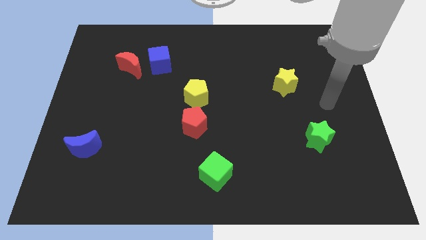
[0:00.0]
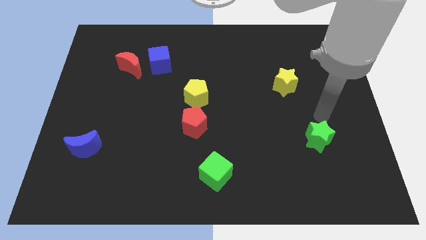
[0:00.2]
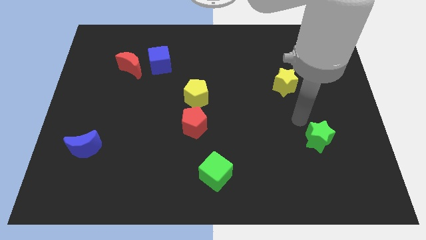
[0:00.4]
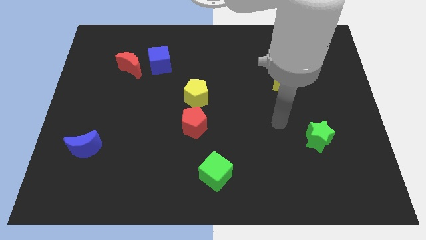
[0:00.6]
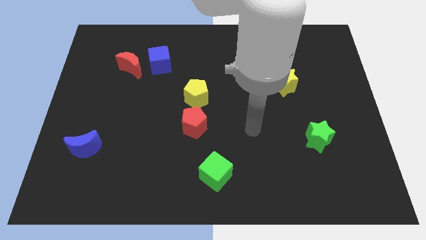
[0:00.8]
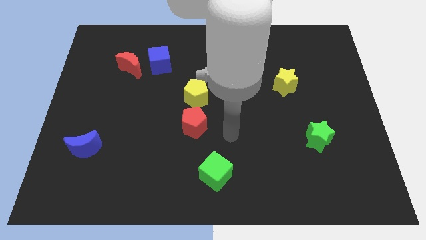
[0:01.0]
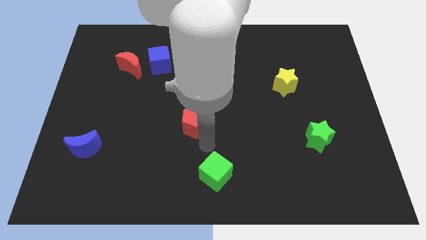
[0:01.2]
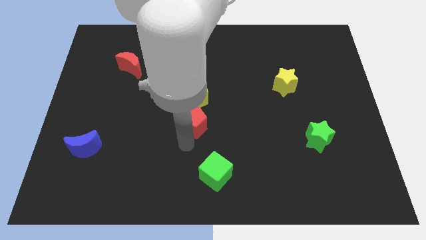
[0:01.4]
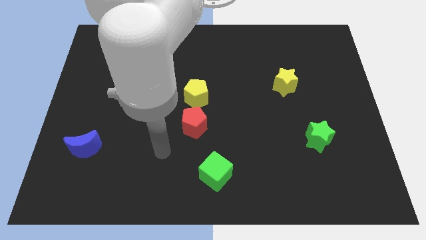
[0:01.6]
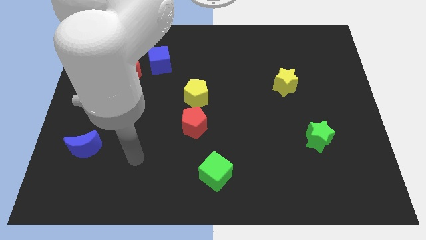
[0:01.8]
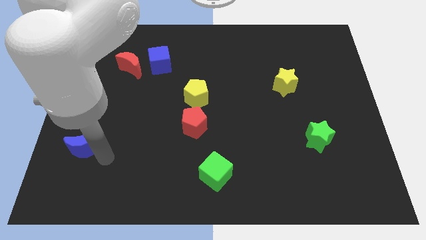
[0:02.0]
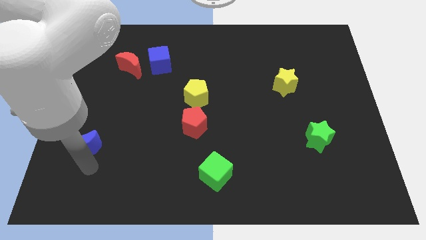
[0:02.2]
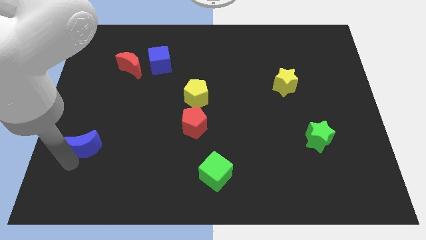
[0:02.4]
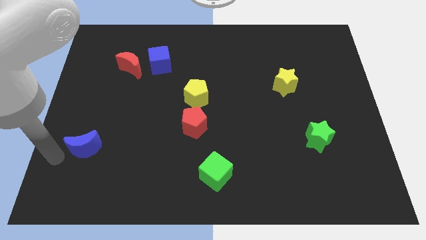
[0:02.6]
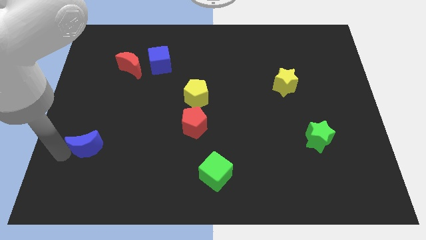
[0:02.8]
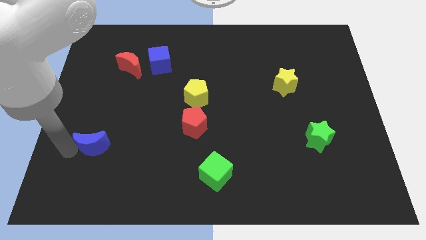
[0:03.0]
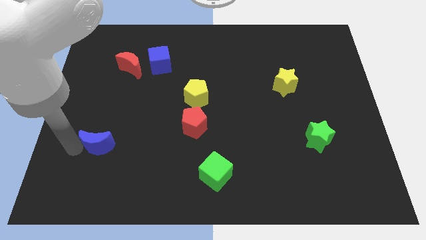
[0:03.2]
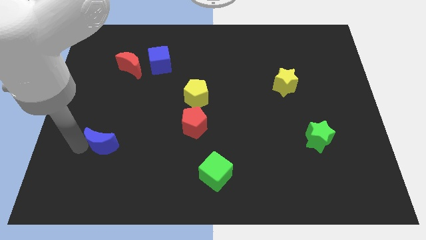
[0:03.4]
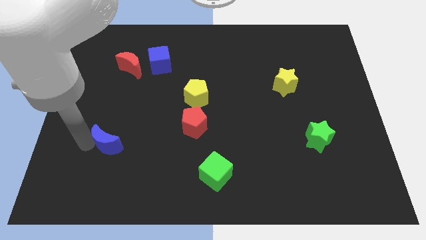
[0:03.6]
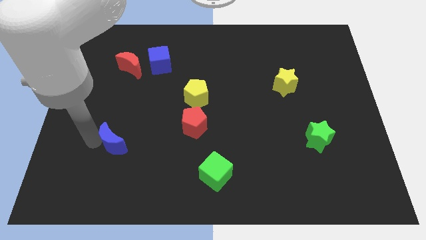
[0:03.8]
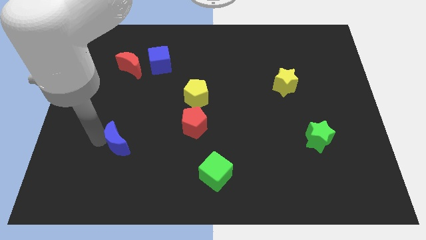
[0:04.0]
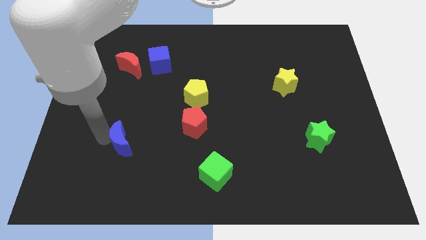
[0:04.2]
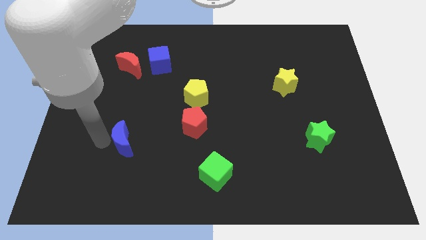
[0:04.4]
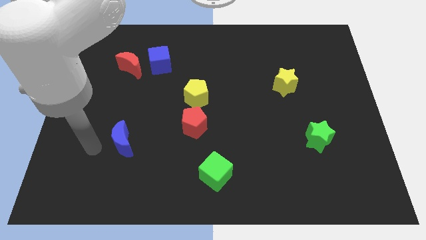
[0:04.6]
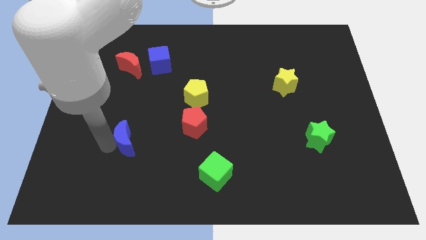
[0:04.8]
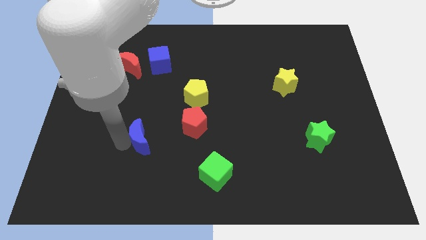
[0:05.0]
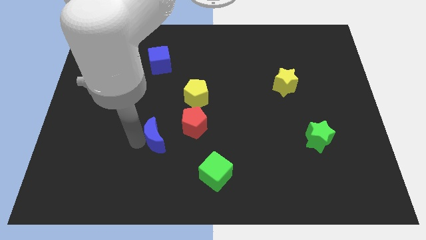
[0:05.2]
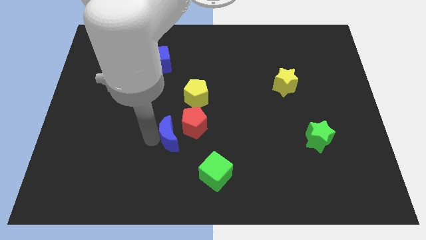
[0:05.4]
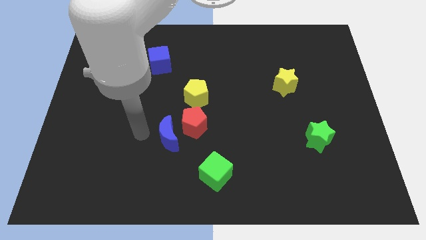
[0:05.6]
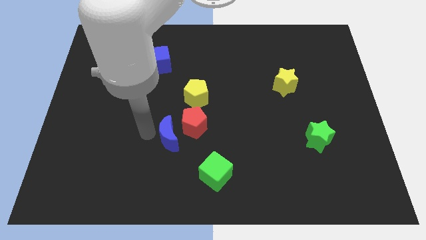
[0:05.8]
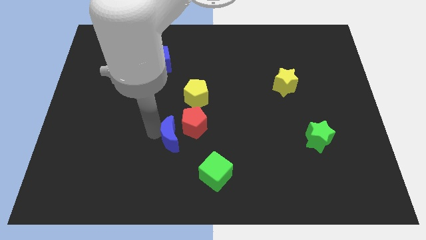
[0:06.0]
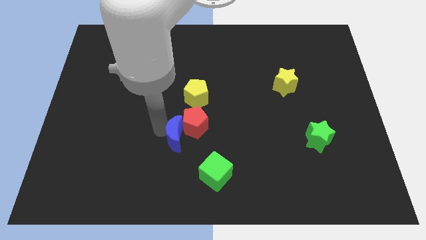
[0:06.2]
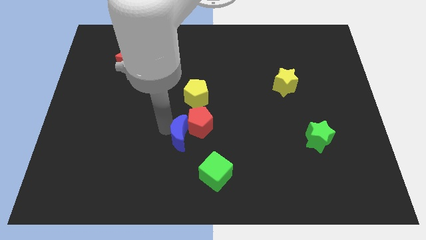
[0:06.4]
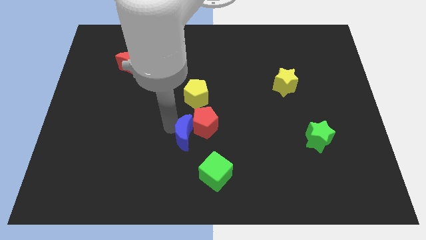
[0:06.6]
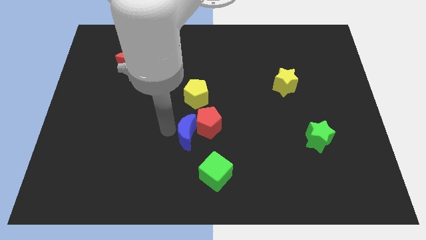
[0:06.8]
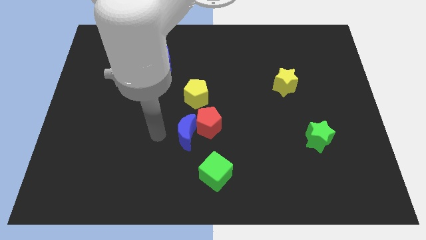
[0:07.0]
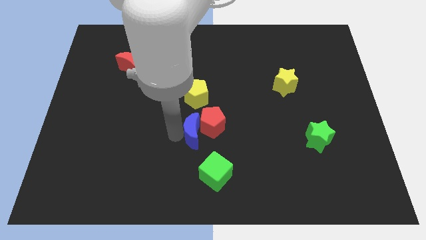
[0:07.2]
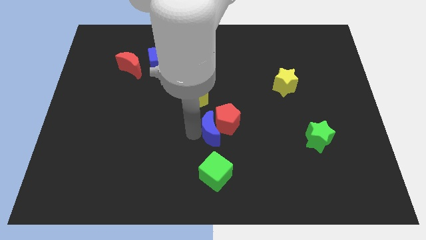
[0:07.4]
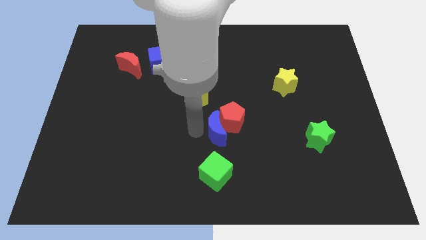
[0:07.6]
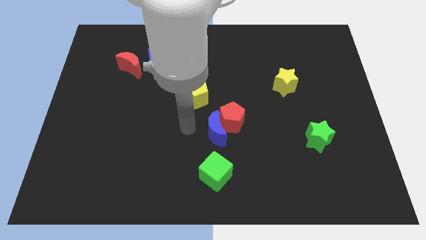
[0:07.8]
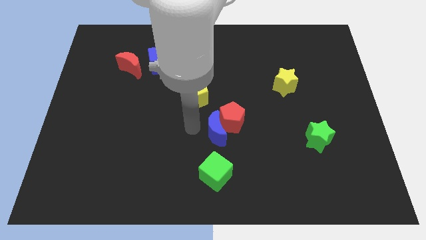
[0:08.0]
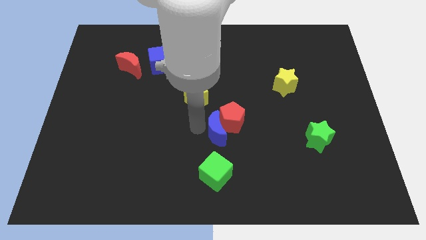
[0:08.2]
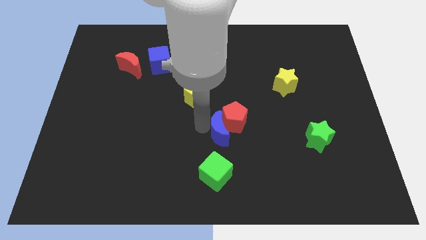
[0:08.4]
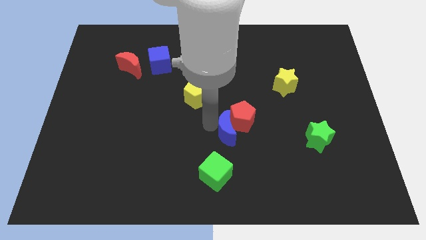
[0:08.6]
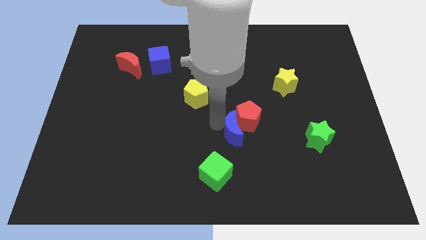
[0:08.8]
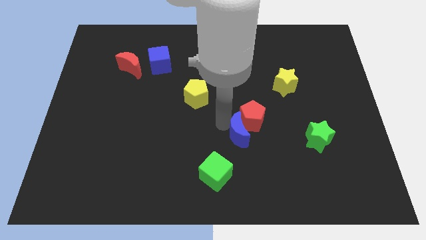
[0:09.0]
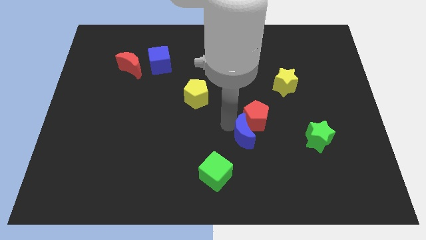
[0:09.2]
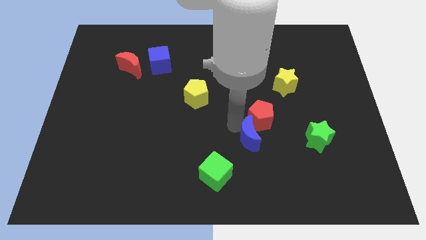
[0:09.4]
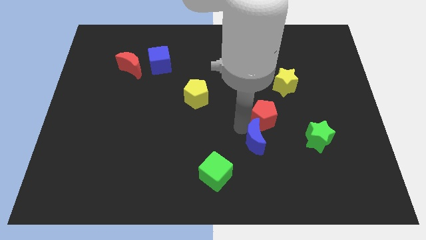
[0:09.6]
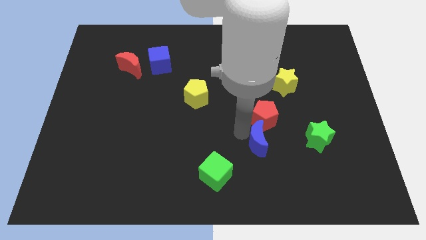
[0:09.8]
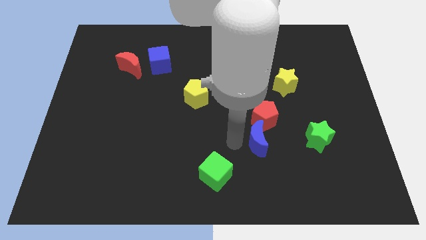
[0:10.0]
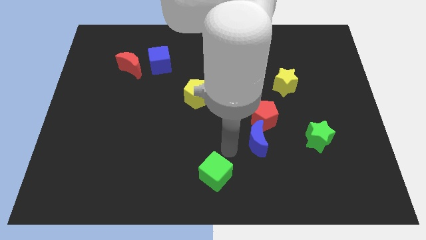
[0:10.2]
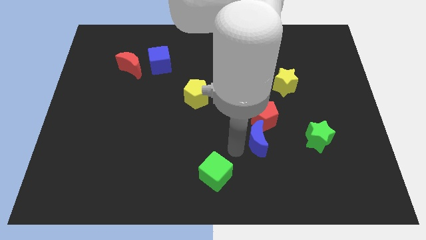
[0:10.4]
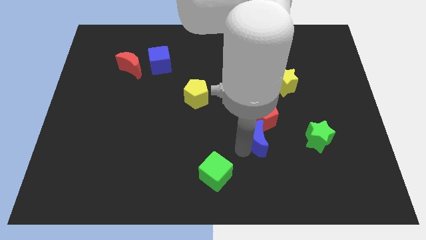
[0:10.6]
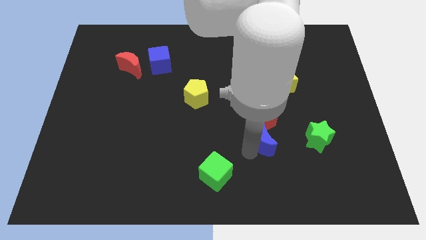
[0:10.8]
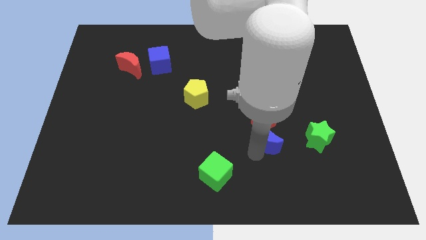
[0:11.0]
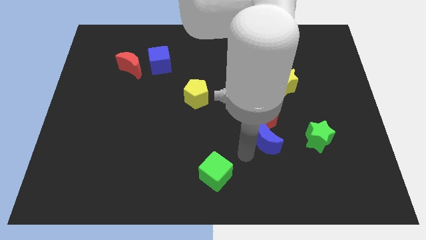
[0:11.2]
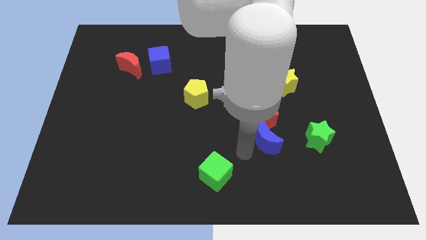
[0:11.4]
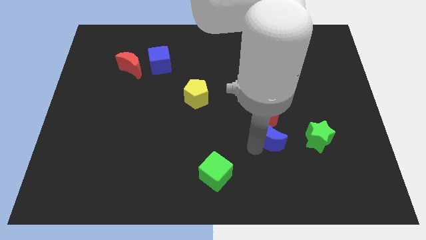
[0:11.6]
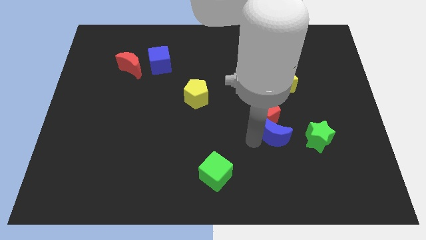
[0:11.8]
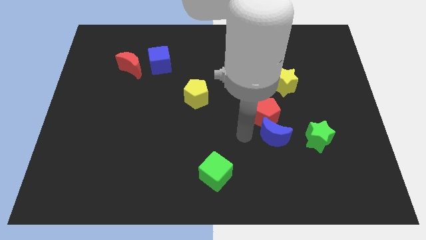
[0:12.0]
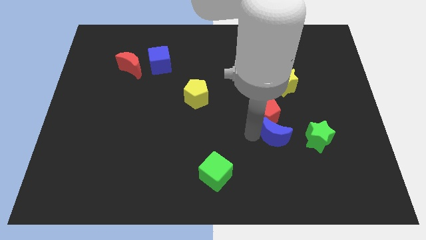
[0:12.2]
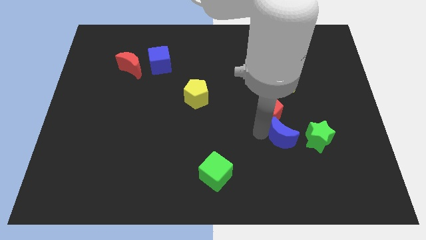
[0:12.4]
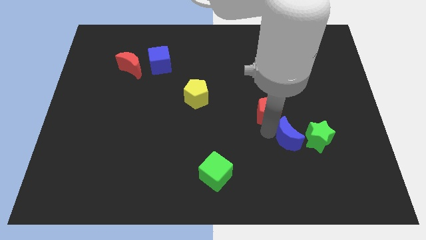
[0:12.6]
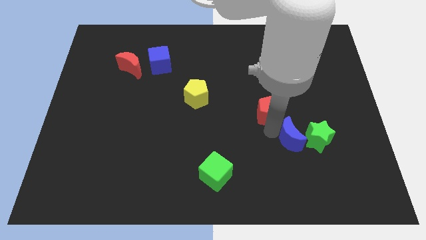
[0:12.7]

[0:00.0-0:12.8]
push the blue moon next to the green star

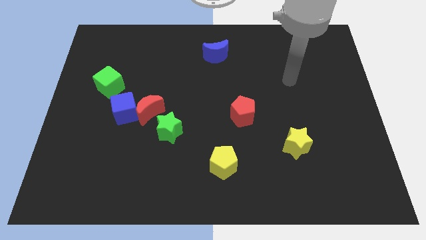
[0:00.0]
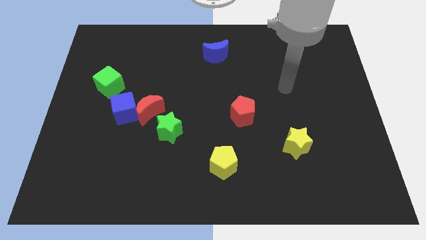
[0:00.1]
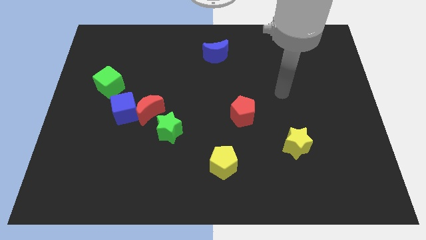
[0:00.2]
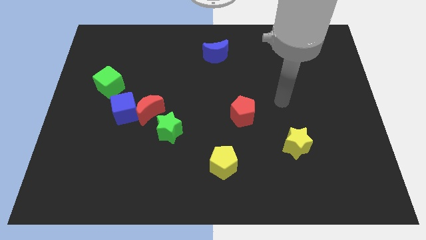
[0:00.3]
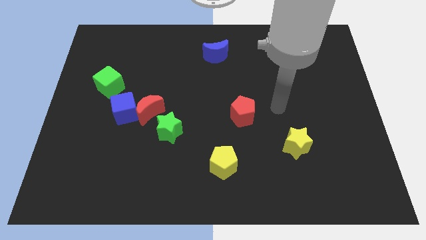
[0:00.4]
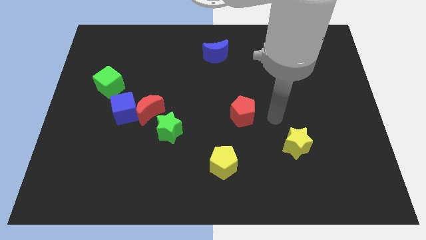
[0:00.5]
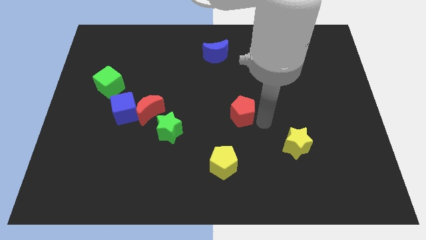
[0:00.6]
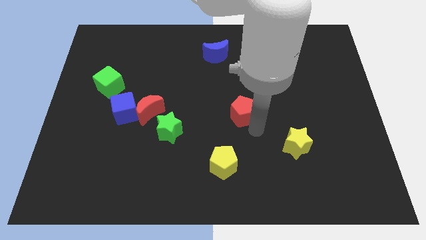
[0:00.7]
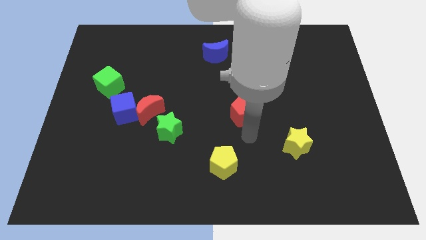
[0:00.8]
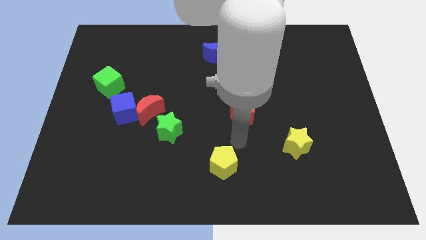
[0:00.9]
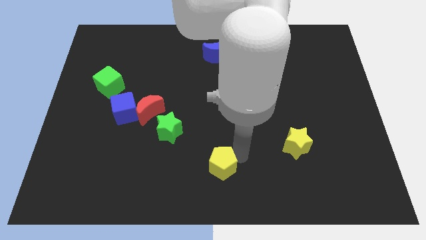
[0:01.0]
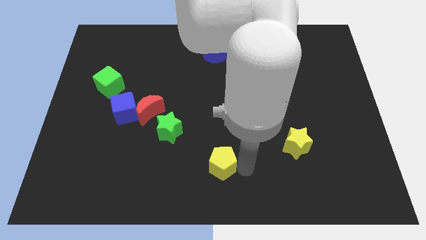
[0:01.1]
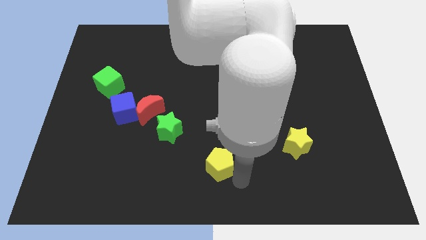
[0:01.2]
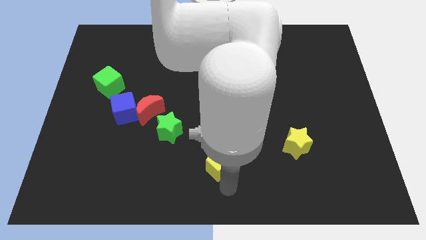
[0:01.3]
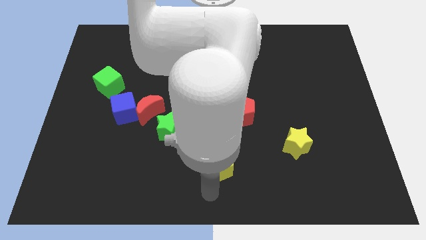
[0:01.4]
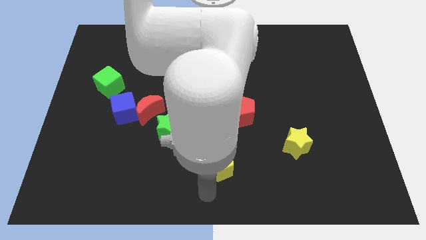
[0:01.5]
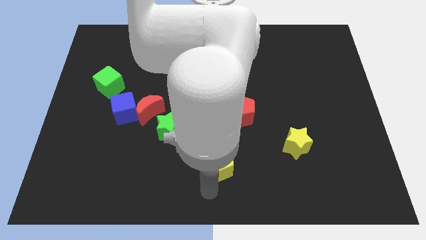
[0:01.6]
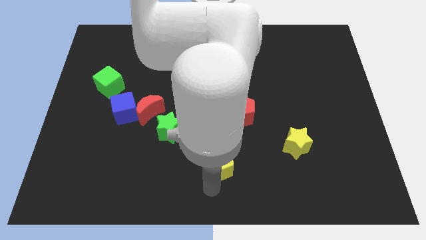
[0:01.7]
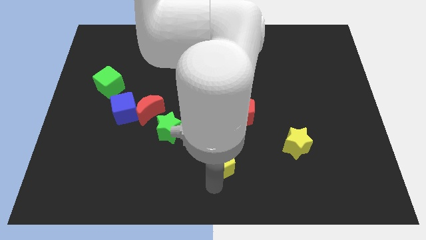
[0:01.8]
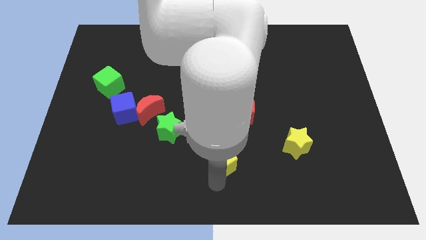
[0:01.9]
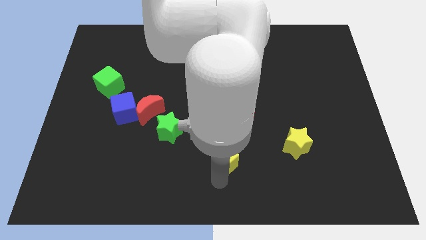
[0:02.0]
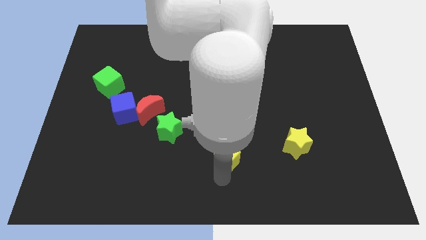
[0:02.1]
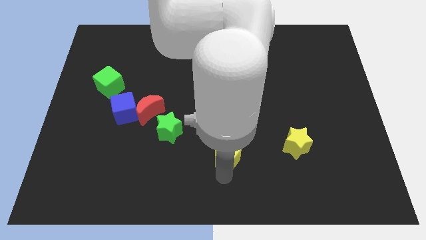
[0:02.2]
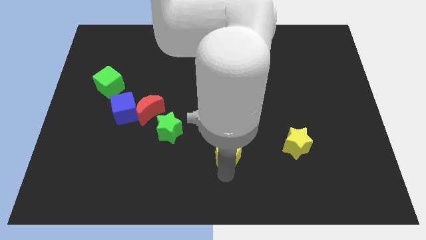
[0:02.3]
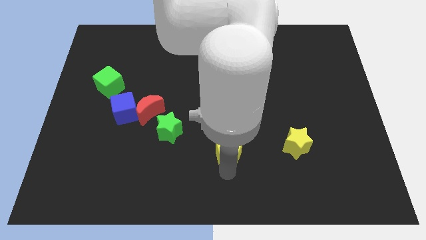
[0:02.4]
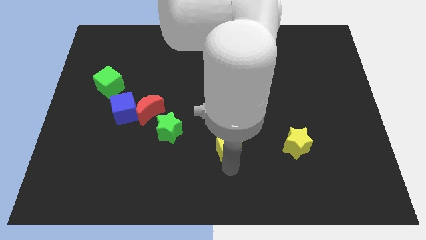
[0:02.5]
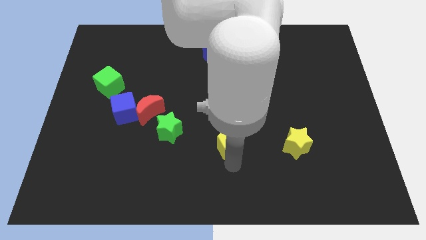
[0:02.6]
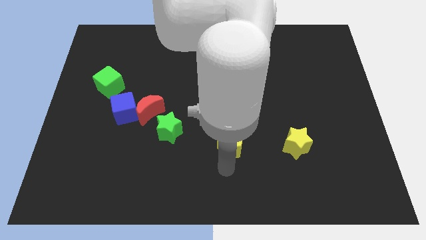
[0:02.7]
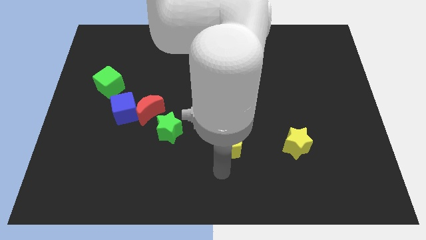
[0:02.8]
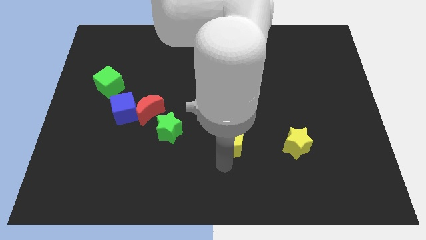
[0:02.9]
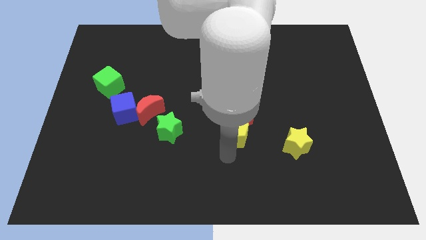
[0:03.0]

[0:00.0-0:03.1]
move the yellow pentagon next to the red pentagon
